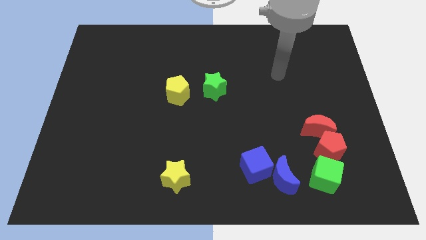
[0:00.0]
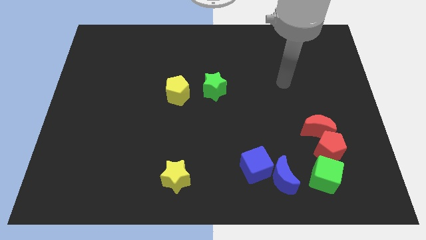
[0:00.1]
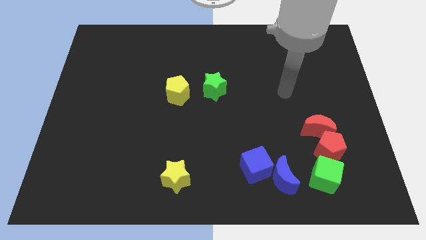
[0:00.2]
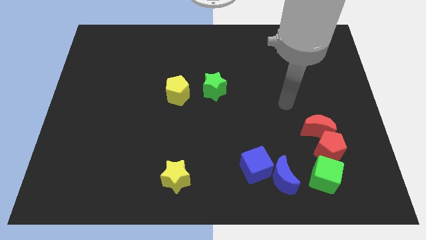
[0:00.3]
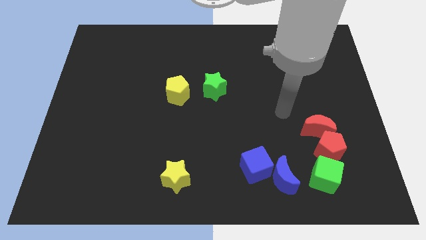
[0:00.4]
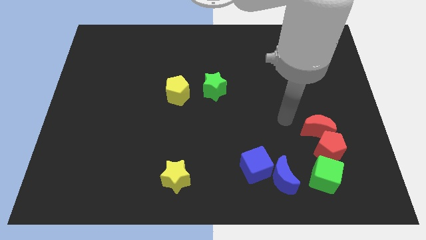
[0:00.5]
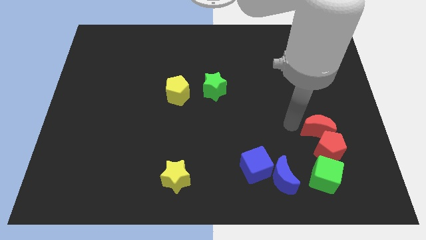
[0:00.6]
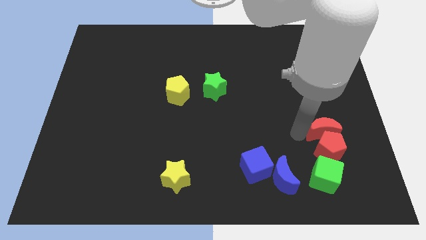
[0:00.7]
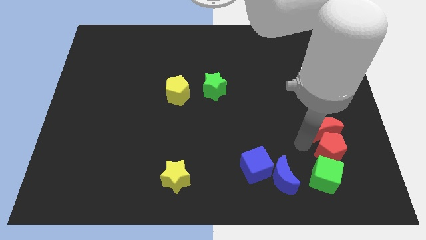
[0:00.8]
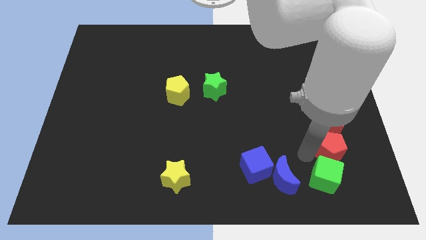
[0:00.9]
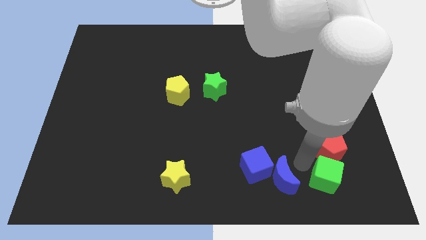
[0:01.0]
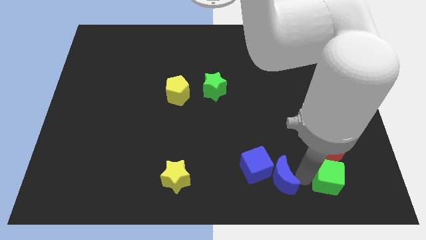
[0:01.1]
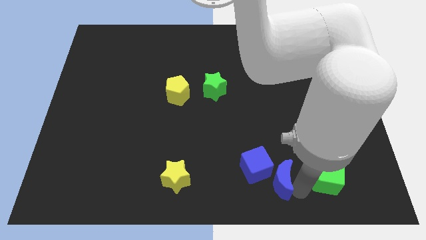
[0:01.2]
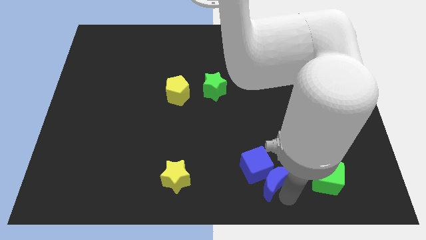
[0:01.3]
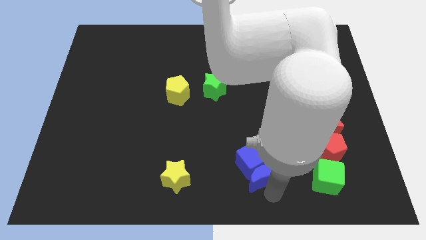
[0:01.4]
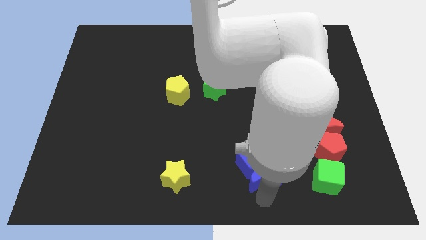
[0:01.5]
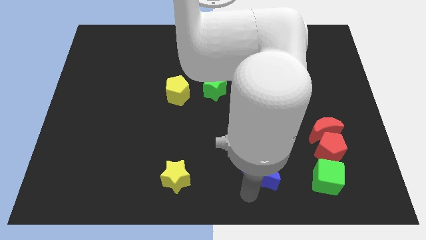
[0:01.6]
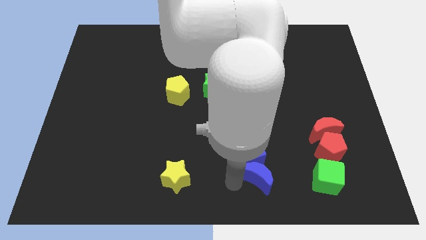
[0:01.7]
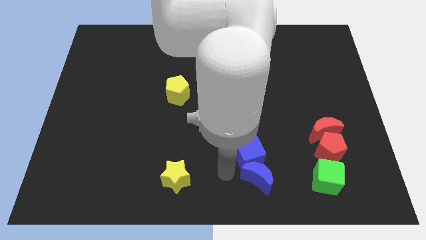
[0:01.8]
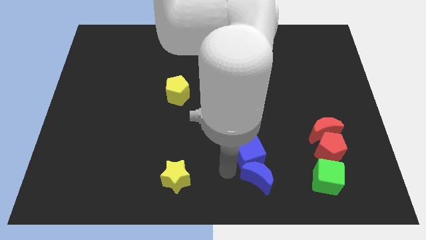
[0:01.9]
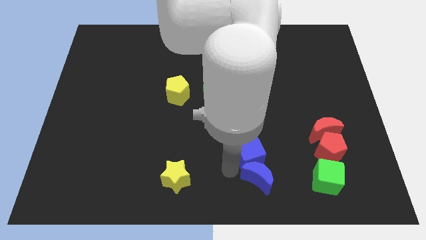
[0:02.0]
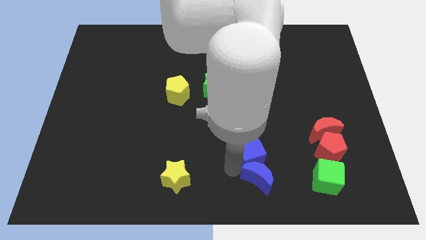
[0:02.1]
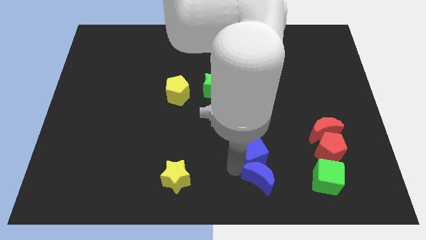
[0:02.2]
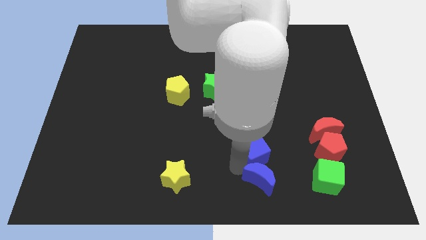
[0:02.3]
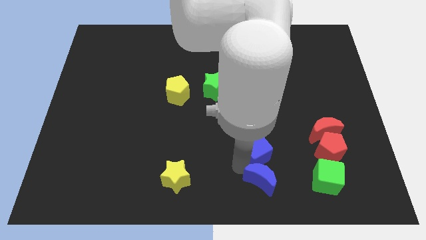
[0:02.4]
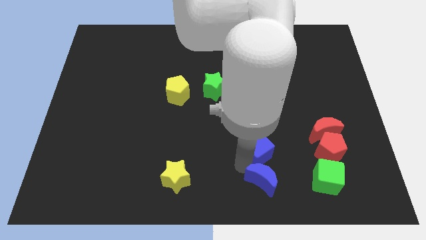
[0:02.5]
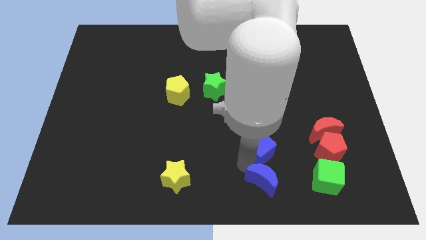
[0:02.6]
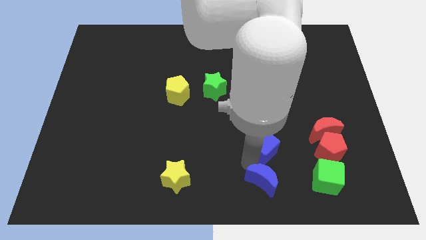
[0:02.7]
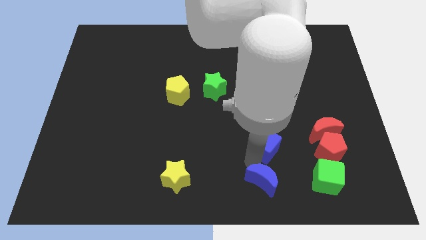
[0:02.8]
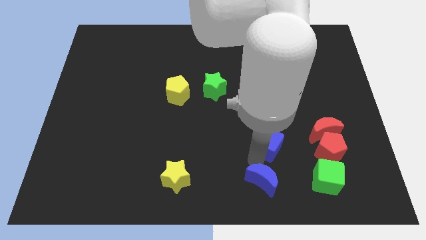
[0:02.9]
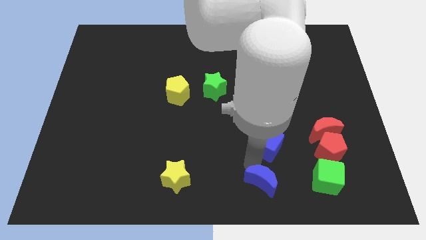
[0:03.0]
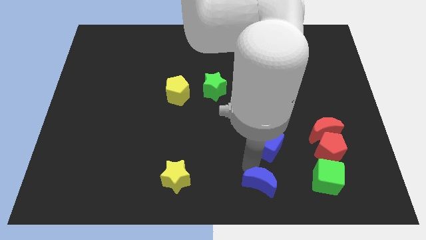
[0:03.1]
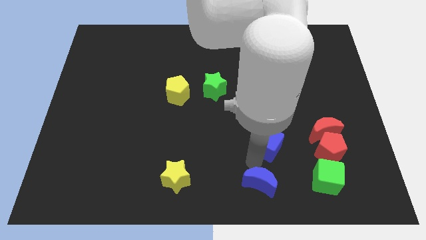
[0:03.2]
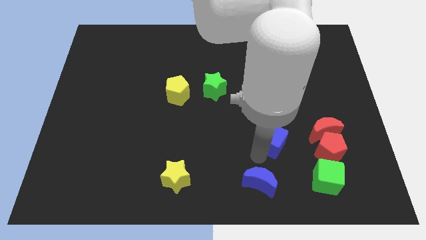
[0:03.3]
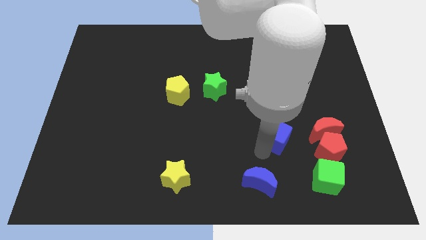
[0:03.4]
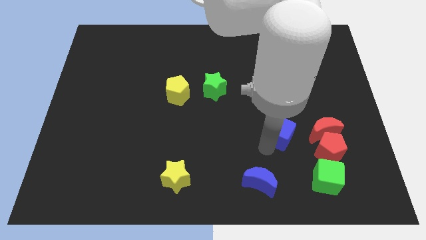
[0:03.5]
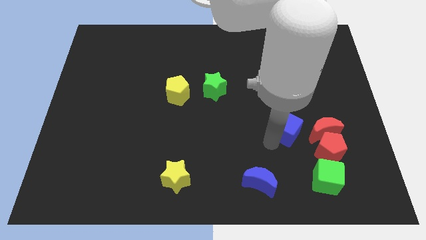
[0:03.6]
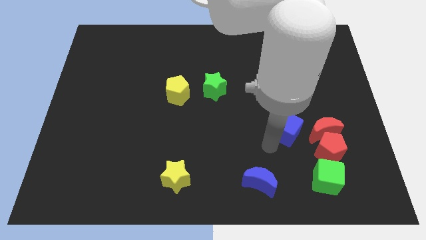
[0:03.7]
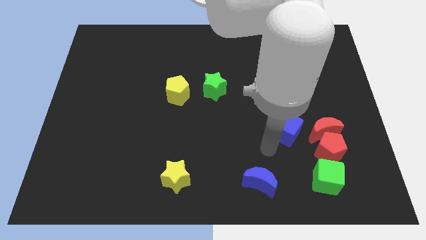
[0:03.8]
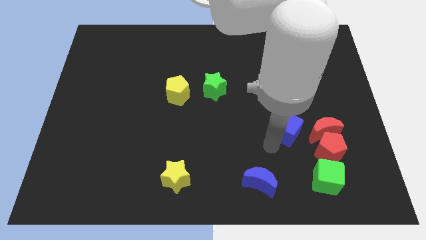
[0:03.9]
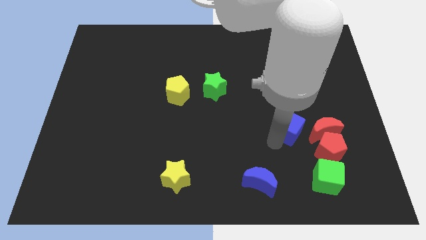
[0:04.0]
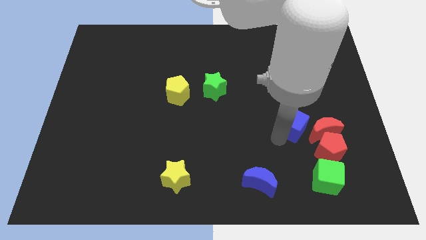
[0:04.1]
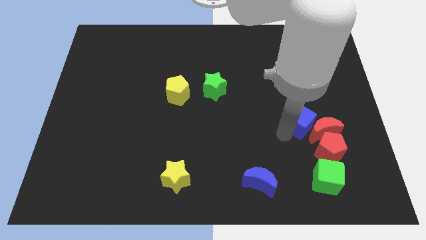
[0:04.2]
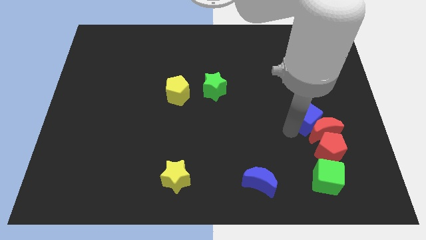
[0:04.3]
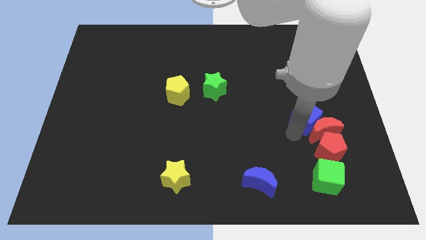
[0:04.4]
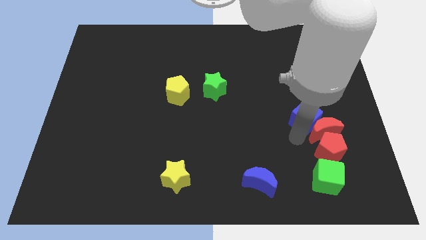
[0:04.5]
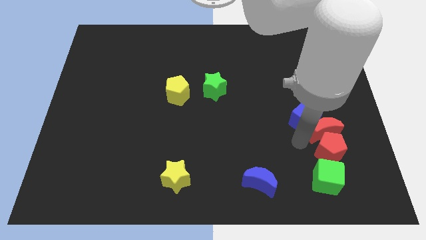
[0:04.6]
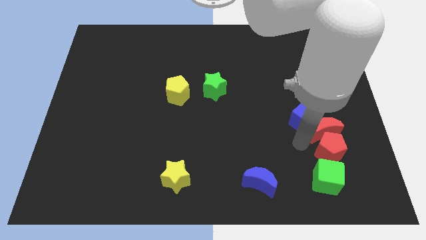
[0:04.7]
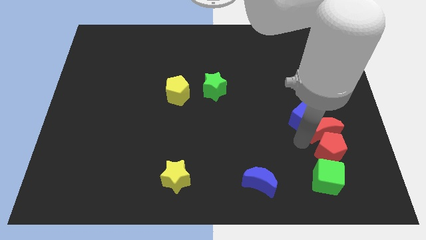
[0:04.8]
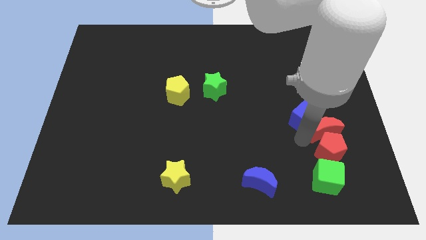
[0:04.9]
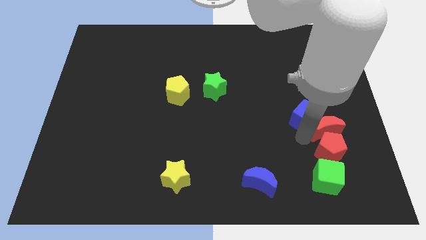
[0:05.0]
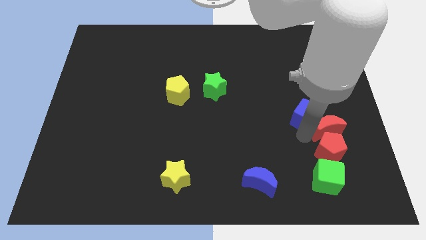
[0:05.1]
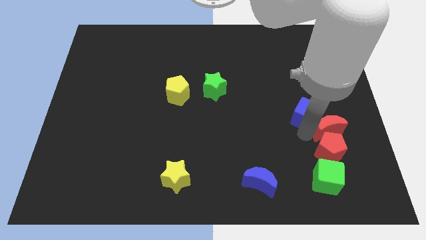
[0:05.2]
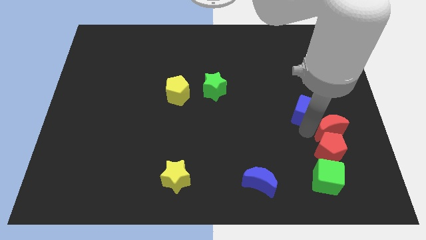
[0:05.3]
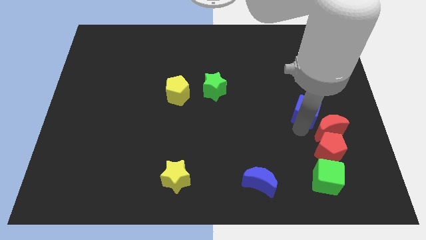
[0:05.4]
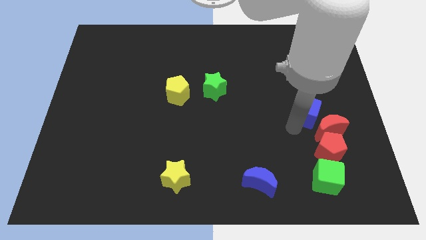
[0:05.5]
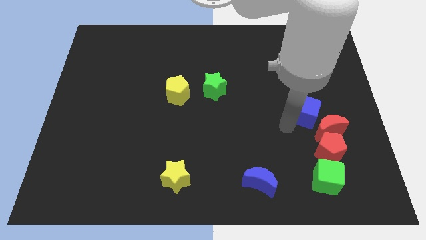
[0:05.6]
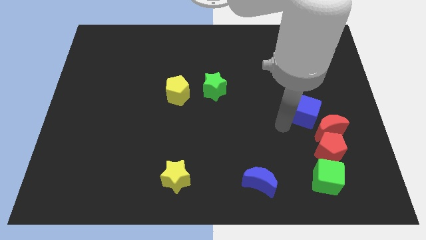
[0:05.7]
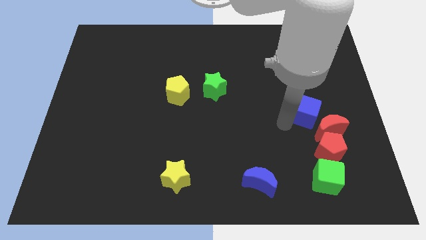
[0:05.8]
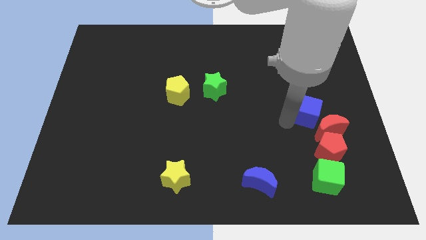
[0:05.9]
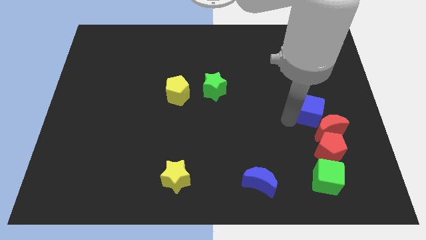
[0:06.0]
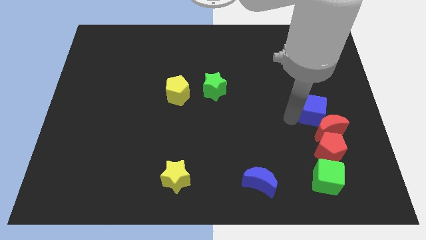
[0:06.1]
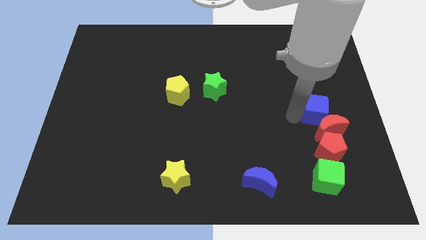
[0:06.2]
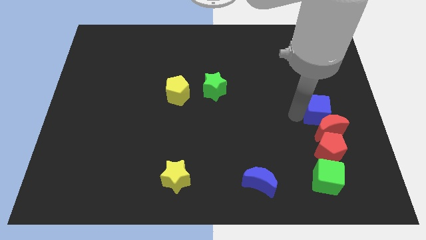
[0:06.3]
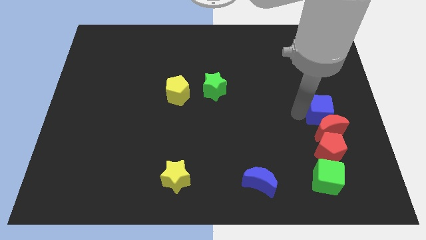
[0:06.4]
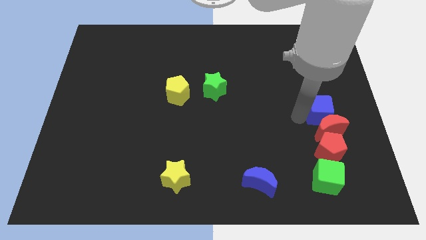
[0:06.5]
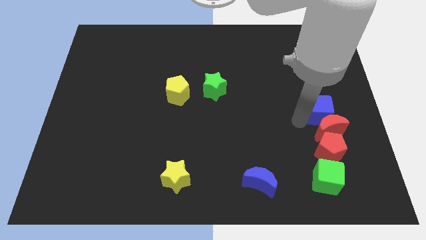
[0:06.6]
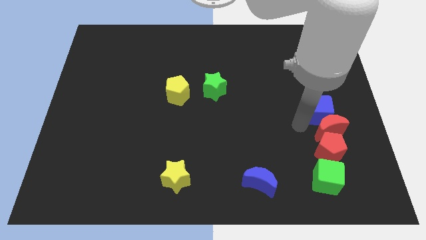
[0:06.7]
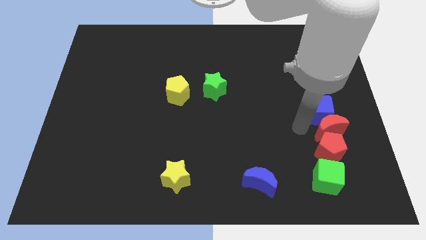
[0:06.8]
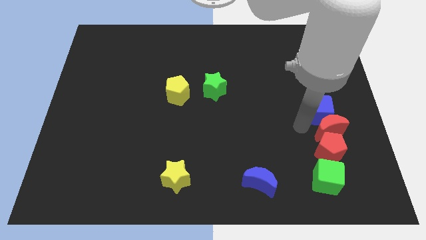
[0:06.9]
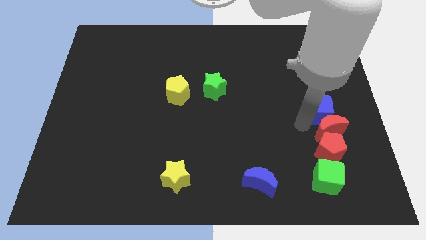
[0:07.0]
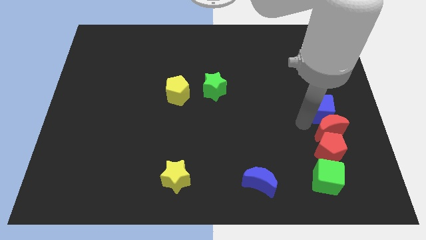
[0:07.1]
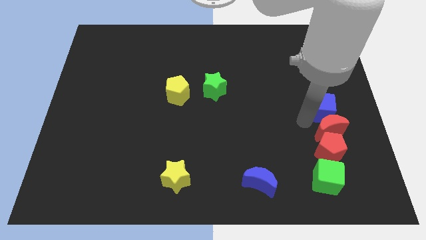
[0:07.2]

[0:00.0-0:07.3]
push the blue cube to the right side of the board
